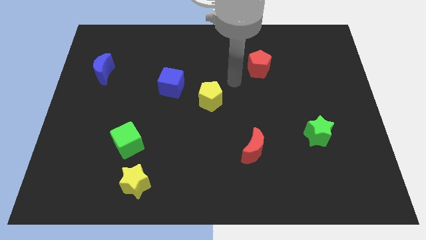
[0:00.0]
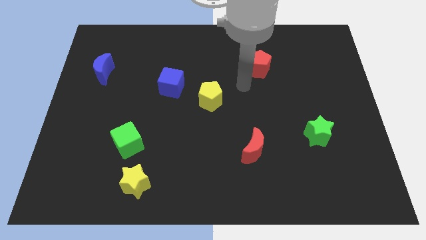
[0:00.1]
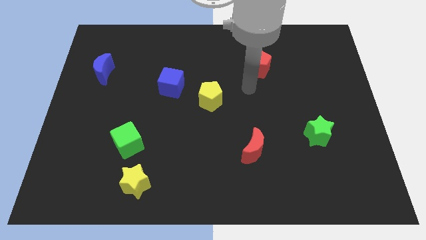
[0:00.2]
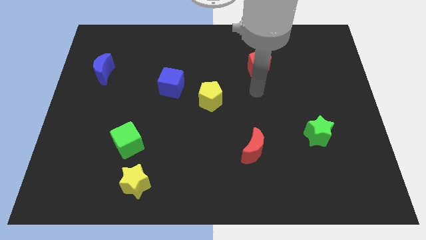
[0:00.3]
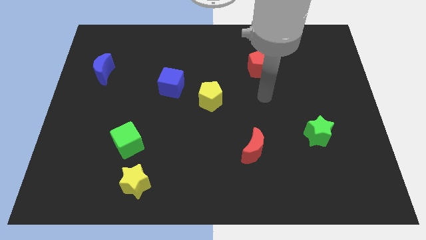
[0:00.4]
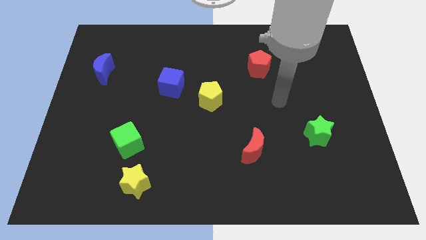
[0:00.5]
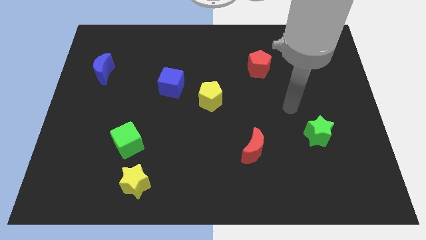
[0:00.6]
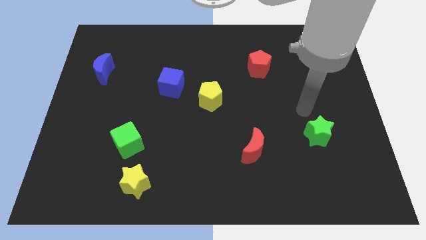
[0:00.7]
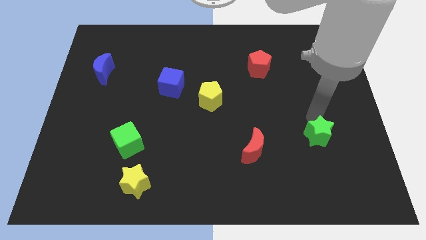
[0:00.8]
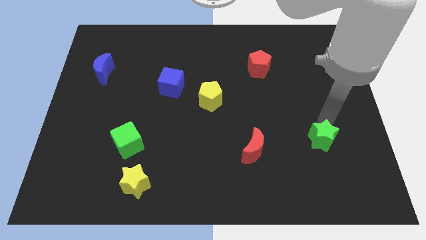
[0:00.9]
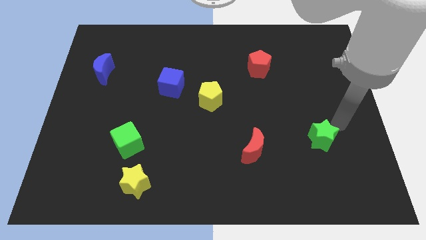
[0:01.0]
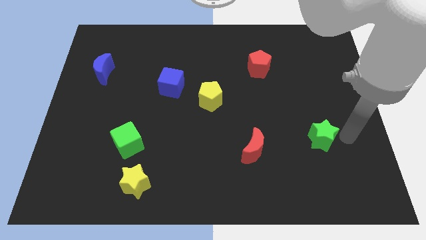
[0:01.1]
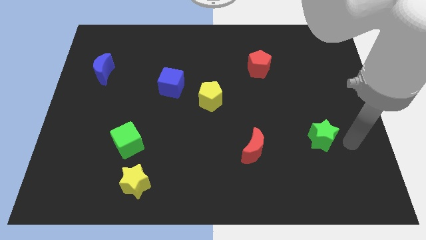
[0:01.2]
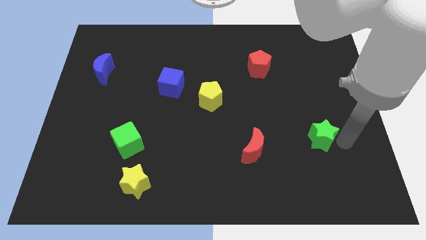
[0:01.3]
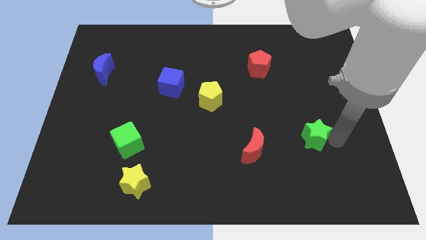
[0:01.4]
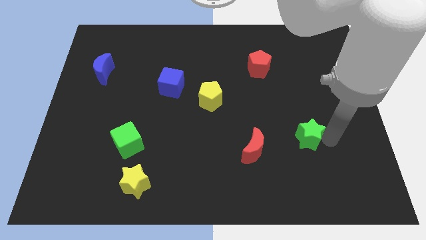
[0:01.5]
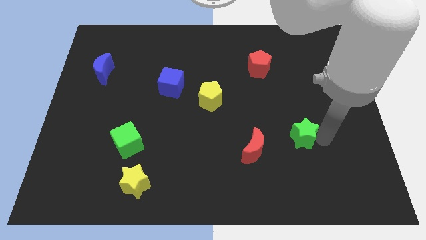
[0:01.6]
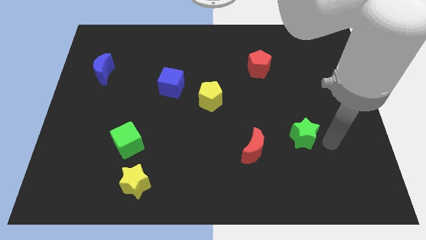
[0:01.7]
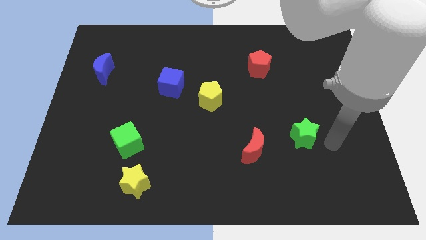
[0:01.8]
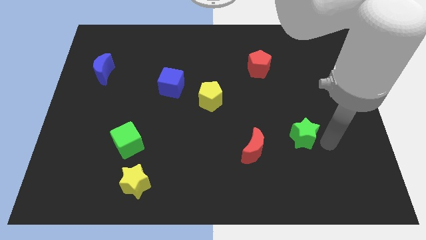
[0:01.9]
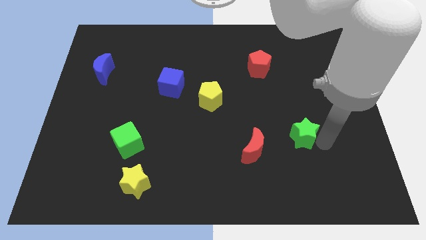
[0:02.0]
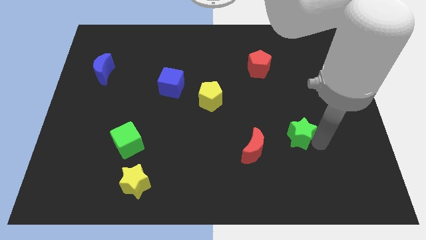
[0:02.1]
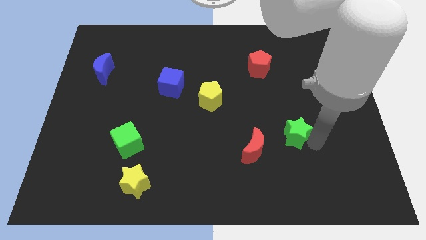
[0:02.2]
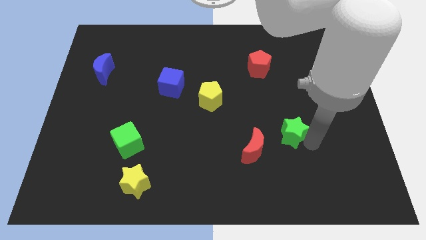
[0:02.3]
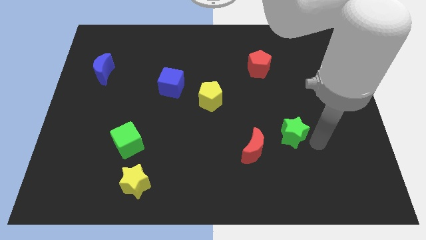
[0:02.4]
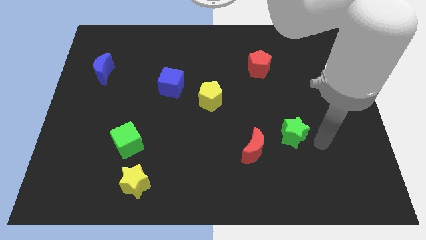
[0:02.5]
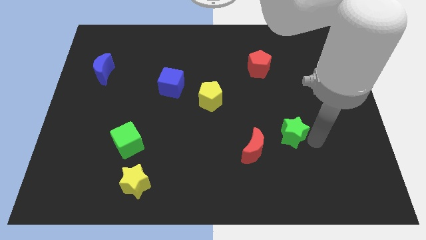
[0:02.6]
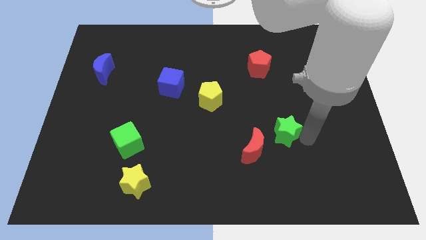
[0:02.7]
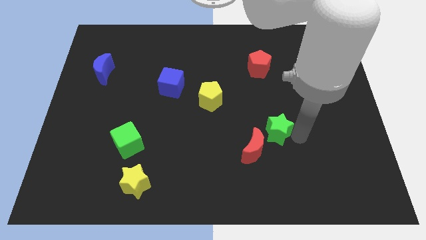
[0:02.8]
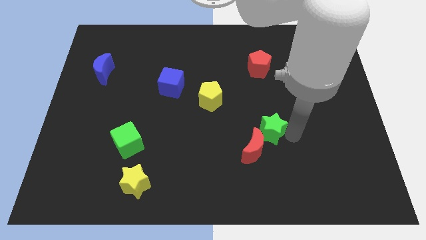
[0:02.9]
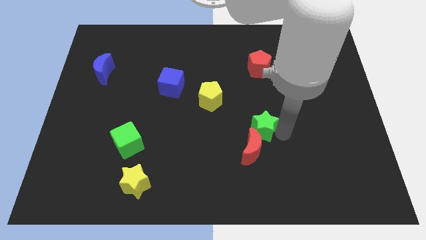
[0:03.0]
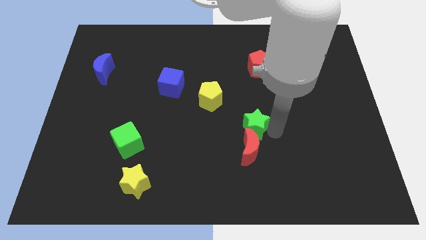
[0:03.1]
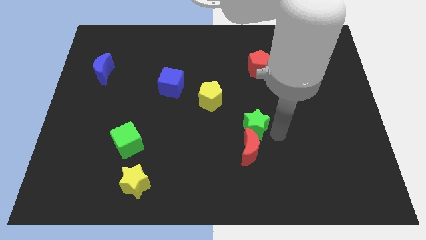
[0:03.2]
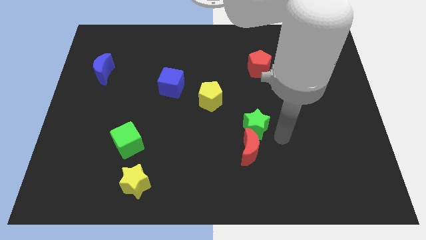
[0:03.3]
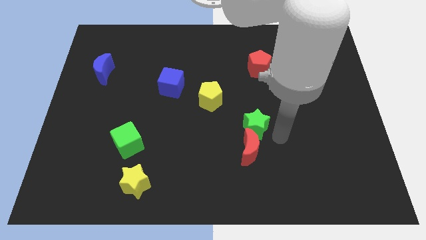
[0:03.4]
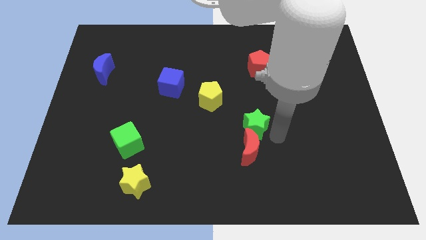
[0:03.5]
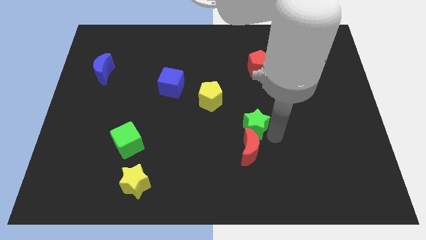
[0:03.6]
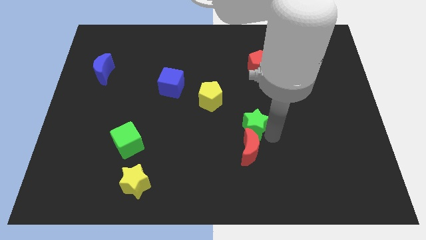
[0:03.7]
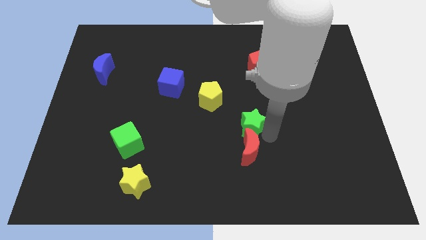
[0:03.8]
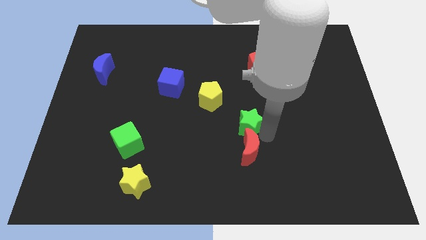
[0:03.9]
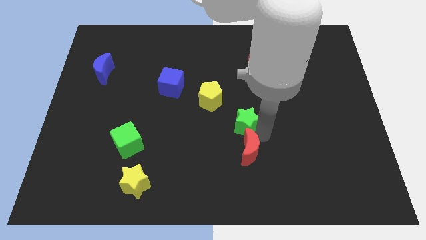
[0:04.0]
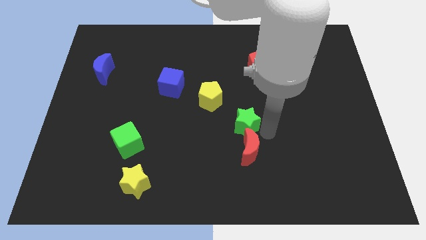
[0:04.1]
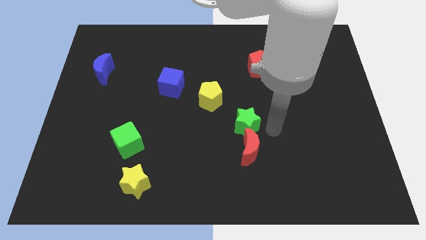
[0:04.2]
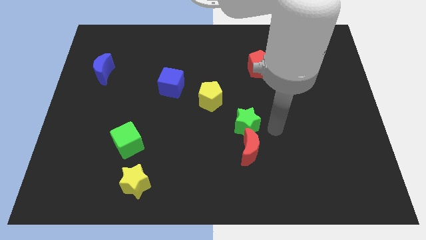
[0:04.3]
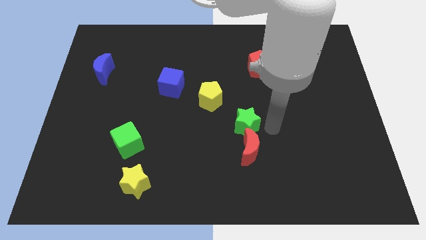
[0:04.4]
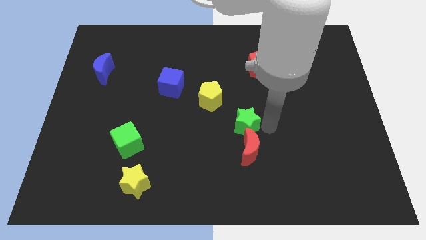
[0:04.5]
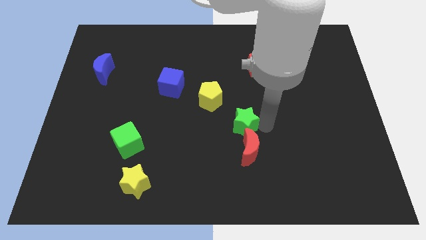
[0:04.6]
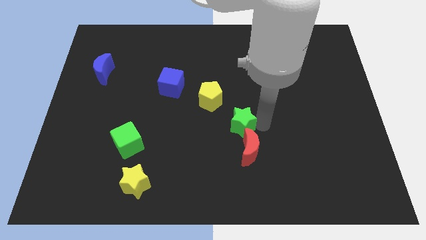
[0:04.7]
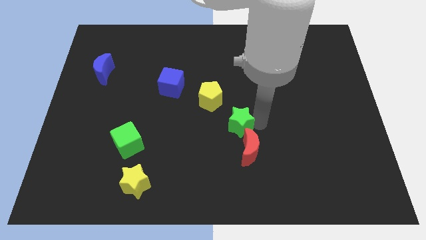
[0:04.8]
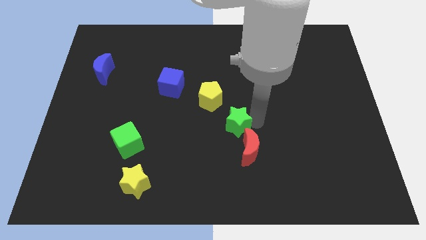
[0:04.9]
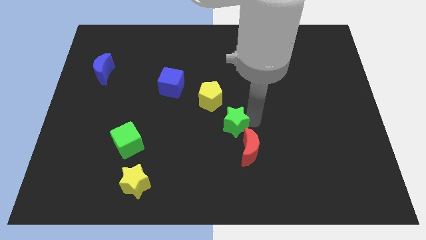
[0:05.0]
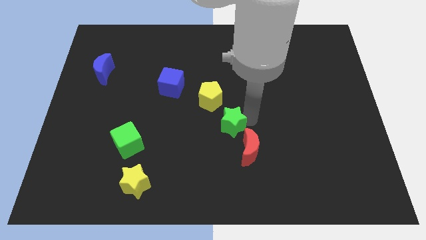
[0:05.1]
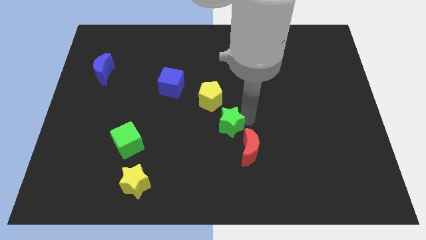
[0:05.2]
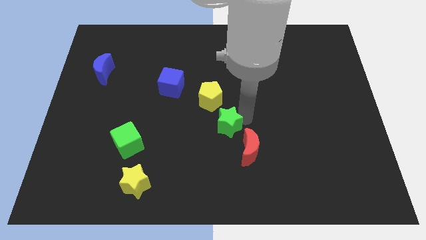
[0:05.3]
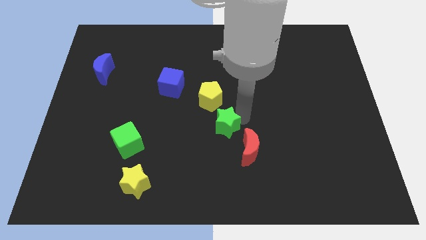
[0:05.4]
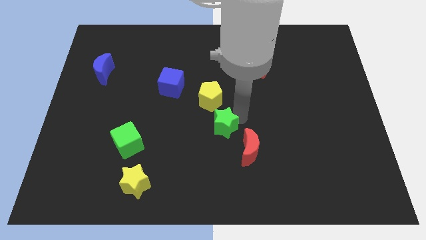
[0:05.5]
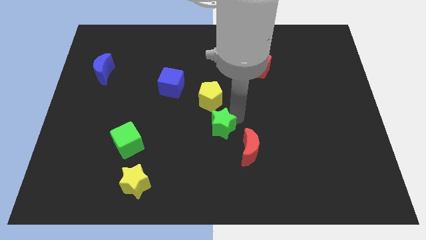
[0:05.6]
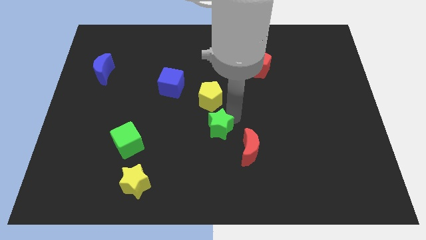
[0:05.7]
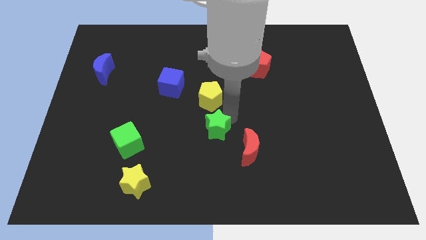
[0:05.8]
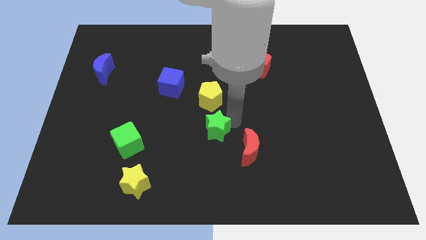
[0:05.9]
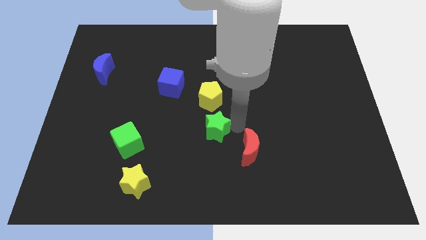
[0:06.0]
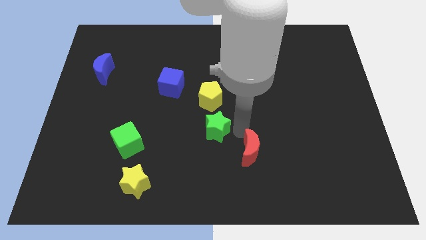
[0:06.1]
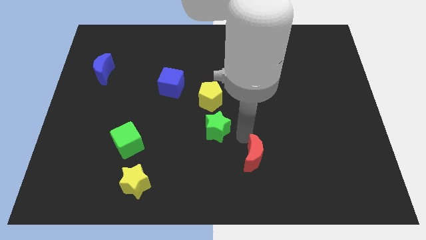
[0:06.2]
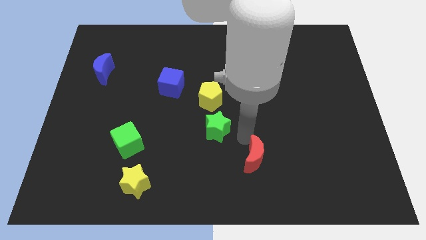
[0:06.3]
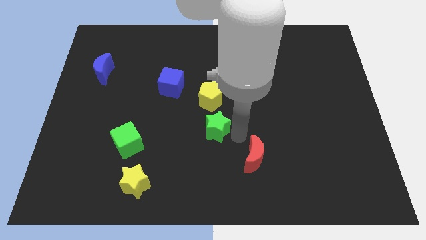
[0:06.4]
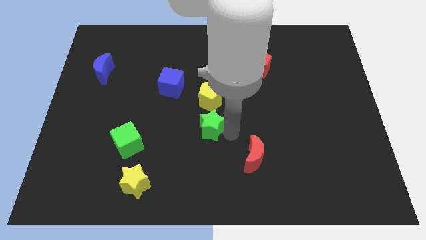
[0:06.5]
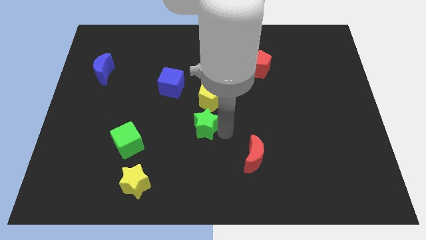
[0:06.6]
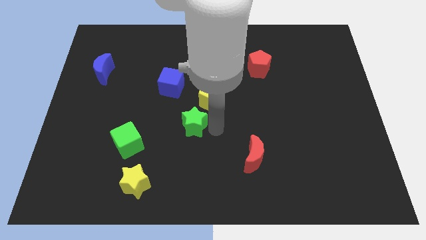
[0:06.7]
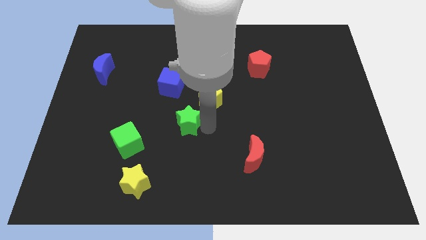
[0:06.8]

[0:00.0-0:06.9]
move the green star below the blue cube
